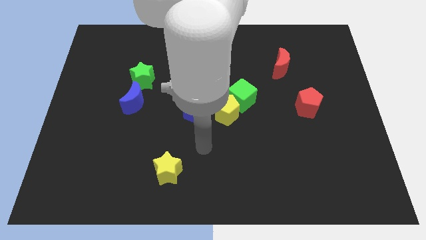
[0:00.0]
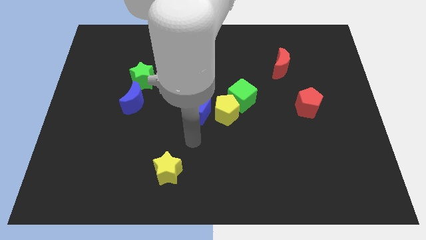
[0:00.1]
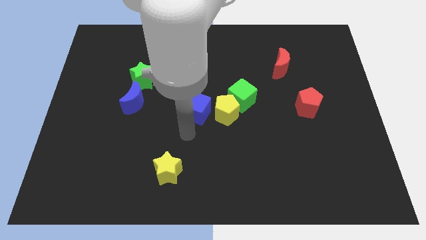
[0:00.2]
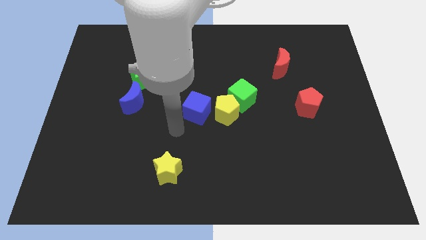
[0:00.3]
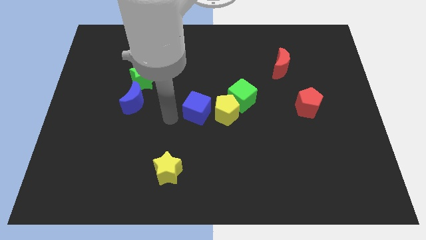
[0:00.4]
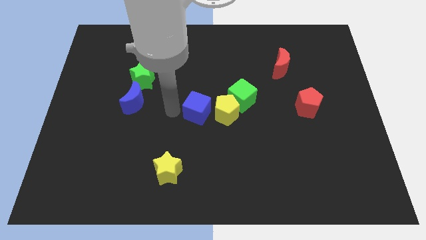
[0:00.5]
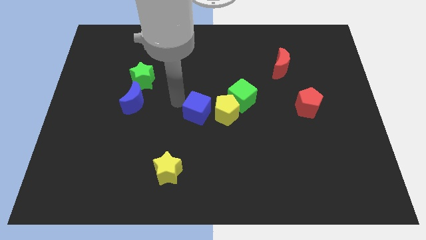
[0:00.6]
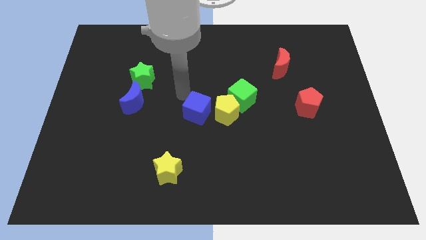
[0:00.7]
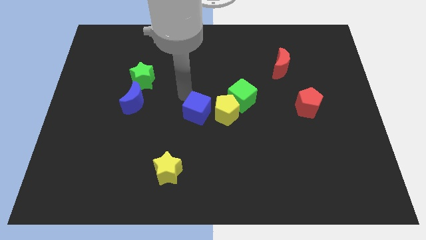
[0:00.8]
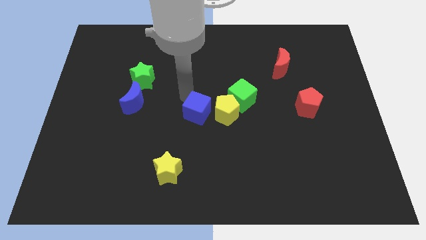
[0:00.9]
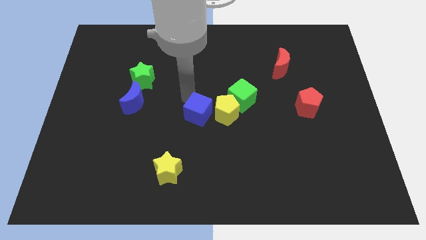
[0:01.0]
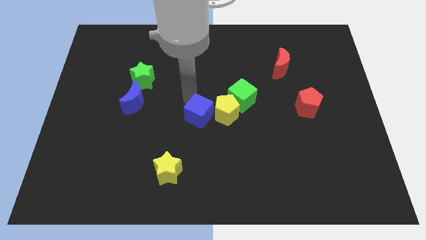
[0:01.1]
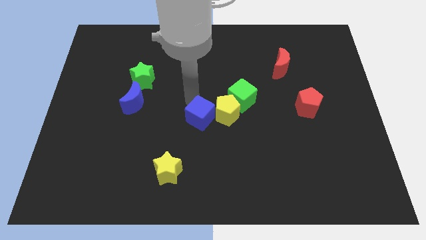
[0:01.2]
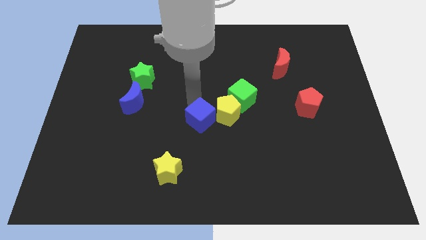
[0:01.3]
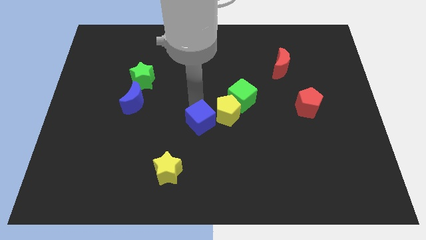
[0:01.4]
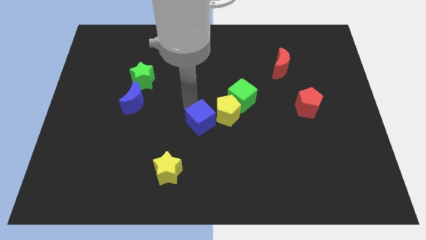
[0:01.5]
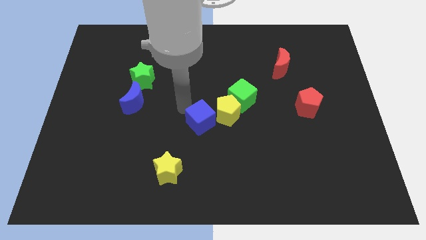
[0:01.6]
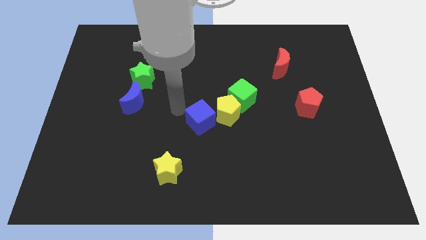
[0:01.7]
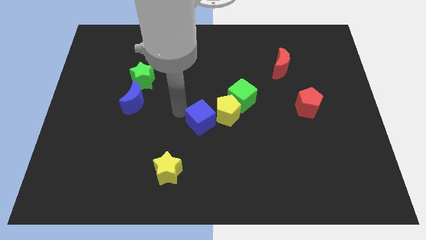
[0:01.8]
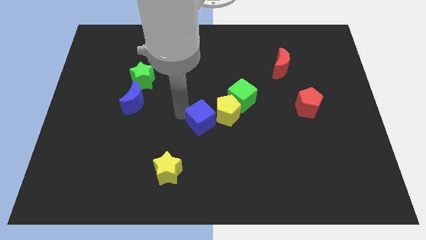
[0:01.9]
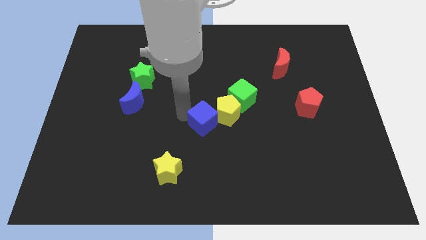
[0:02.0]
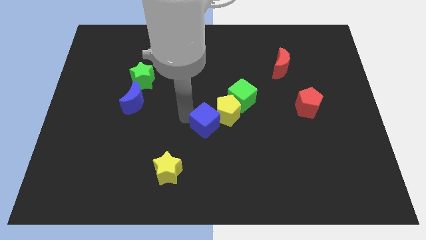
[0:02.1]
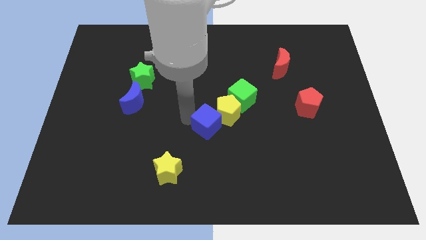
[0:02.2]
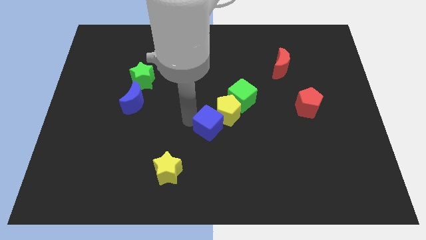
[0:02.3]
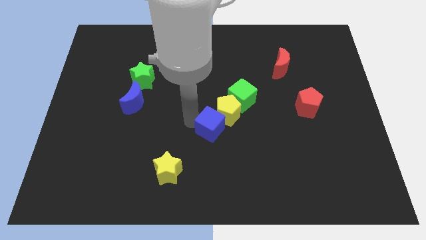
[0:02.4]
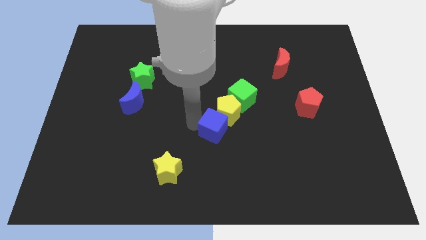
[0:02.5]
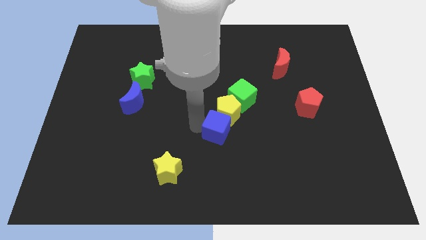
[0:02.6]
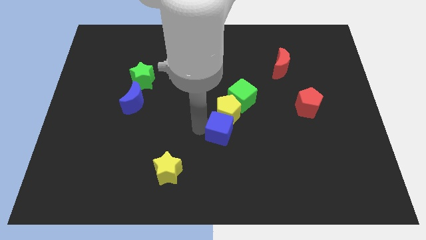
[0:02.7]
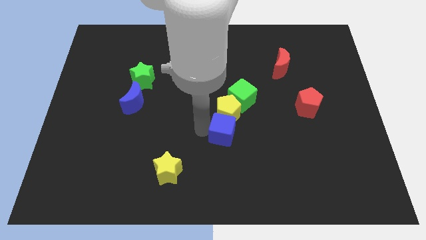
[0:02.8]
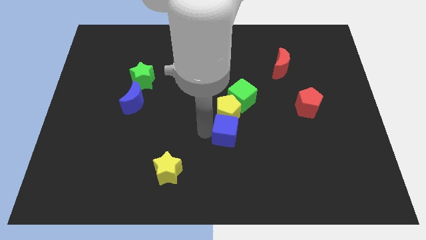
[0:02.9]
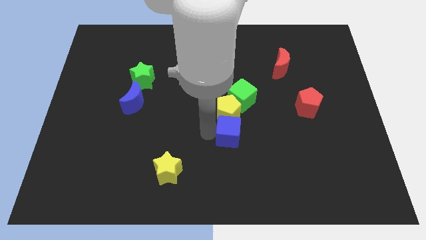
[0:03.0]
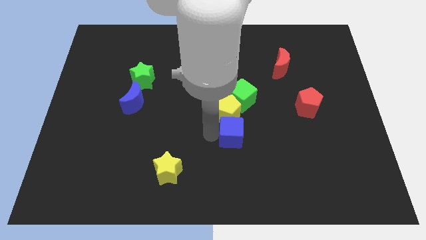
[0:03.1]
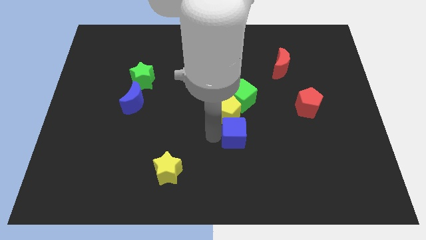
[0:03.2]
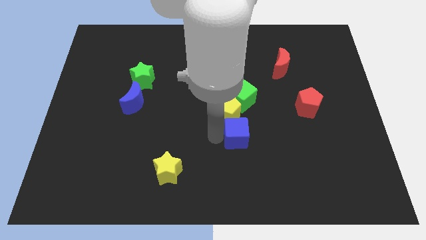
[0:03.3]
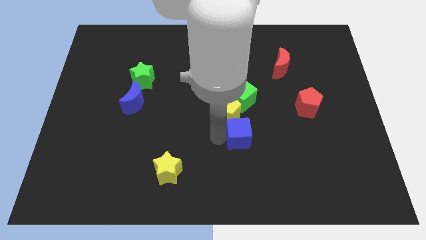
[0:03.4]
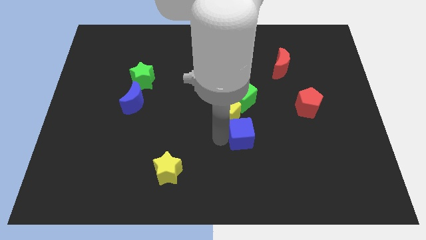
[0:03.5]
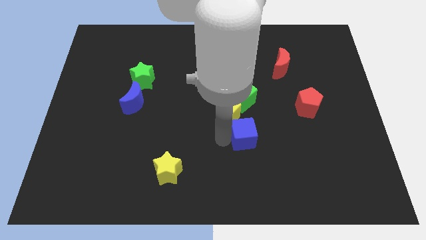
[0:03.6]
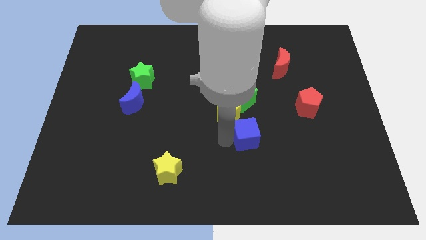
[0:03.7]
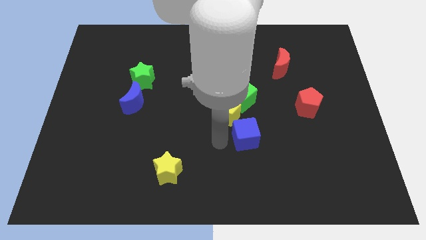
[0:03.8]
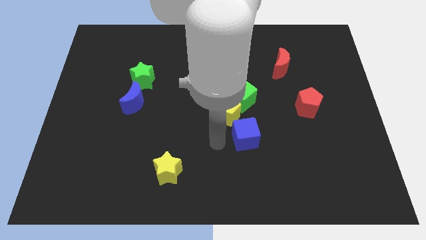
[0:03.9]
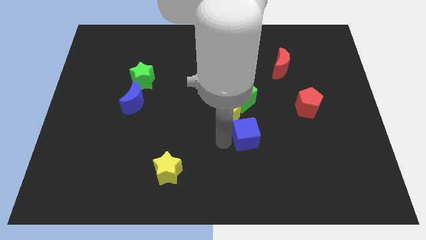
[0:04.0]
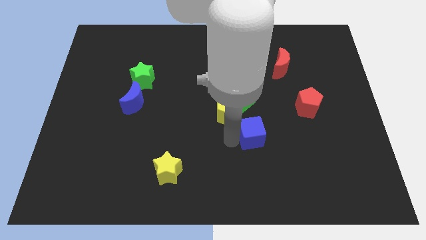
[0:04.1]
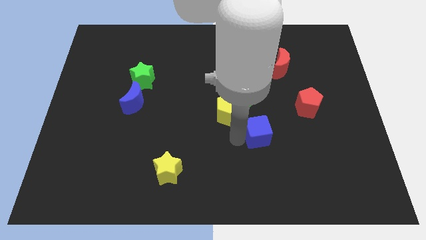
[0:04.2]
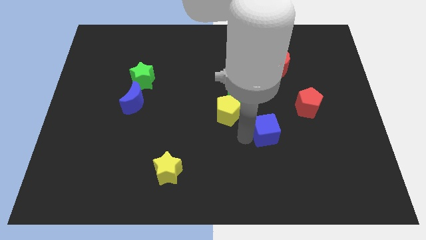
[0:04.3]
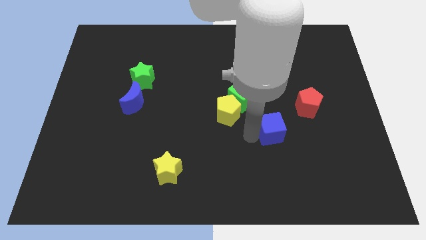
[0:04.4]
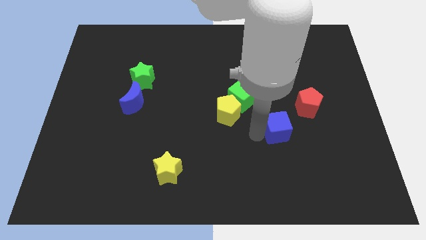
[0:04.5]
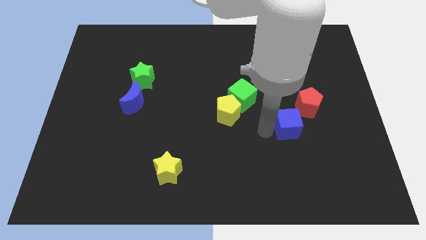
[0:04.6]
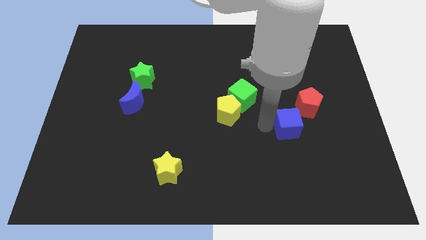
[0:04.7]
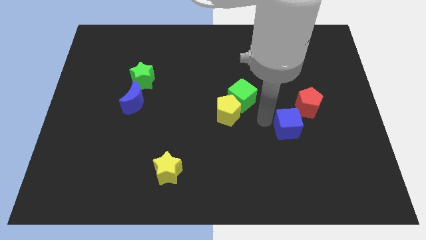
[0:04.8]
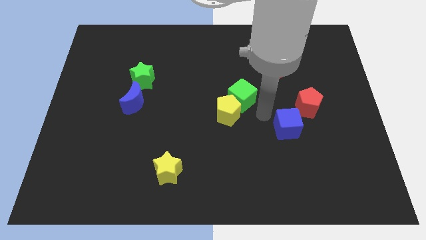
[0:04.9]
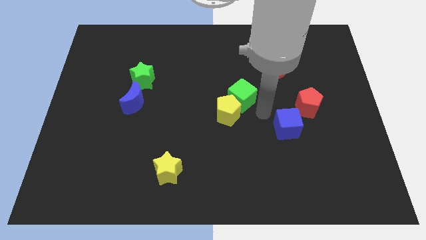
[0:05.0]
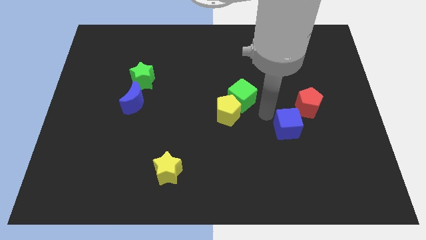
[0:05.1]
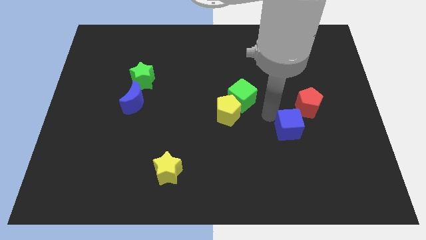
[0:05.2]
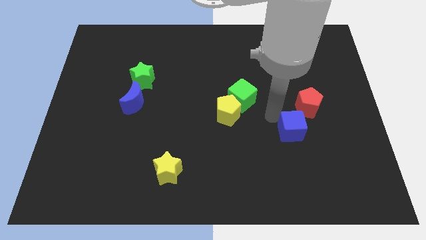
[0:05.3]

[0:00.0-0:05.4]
put the blue cube to the bottom side of the red pentagon

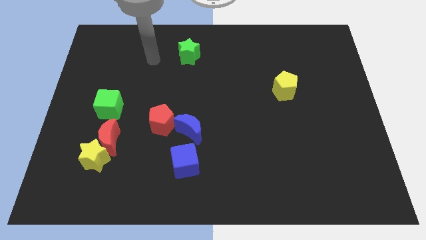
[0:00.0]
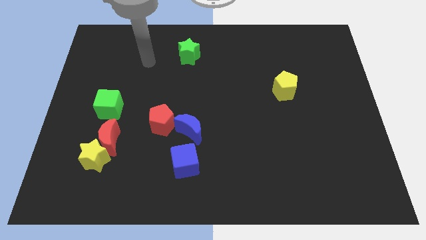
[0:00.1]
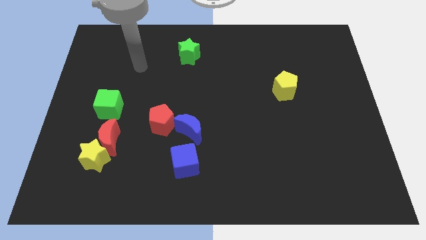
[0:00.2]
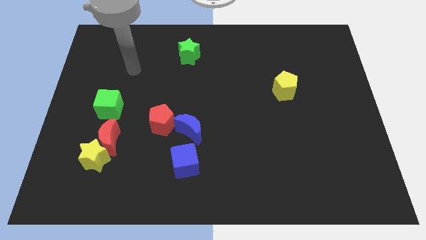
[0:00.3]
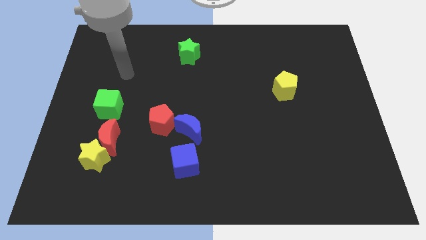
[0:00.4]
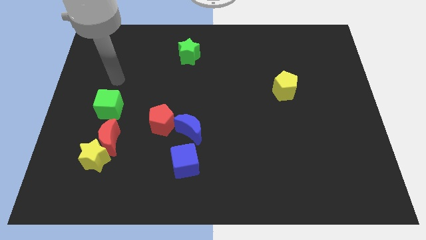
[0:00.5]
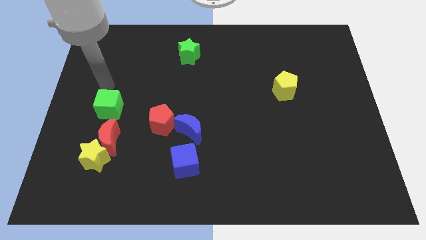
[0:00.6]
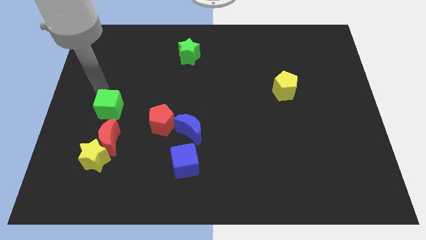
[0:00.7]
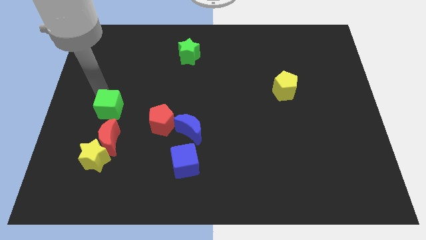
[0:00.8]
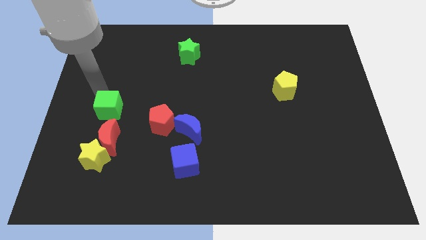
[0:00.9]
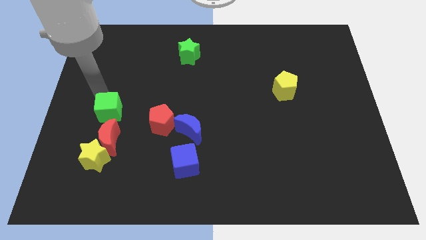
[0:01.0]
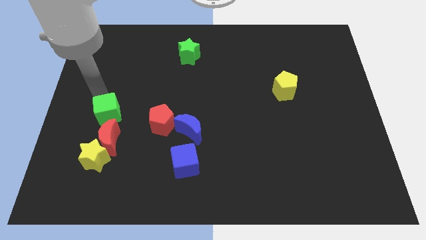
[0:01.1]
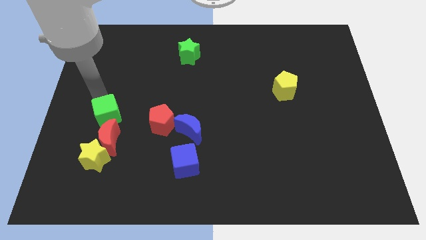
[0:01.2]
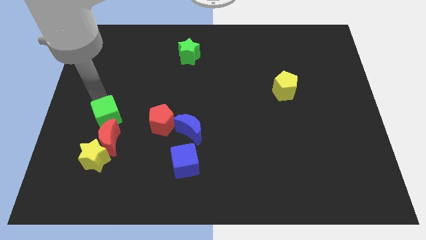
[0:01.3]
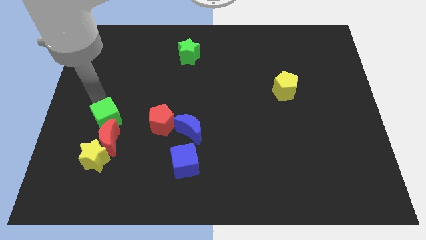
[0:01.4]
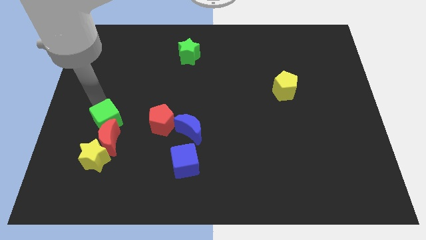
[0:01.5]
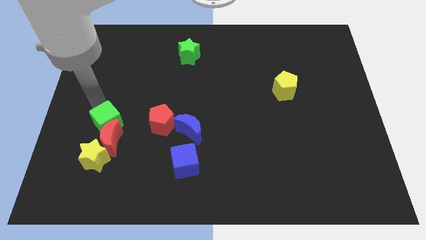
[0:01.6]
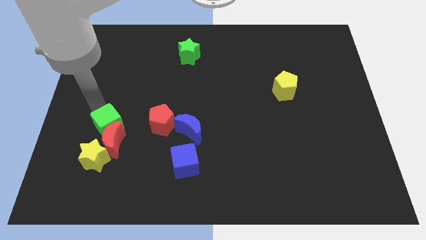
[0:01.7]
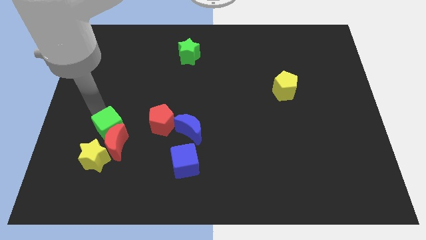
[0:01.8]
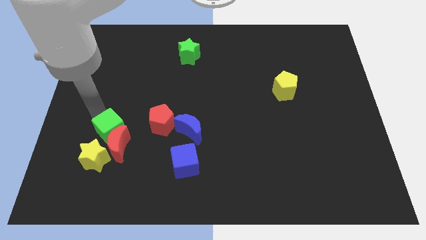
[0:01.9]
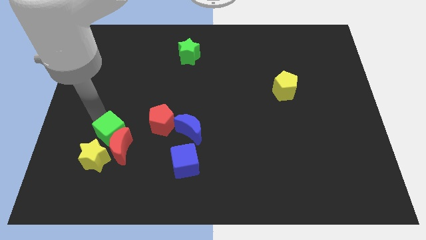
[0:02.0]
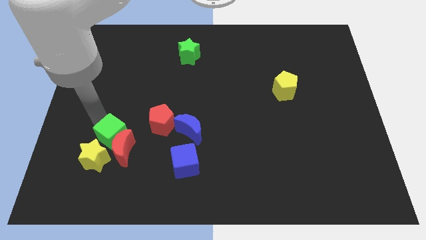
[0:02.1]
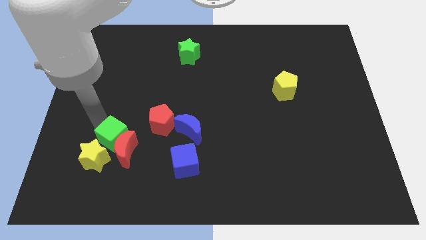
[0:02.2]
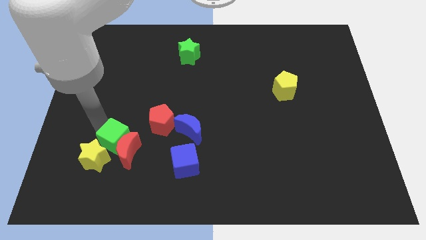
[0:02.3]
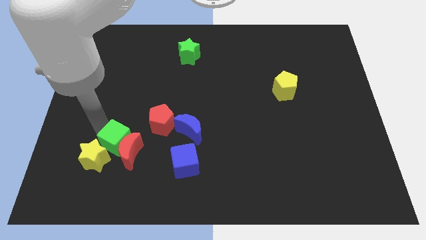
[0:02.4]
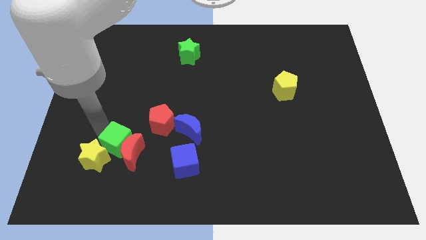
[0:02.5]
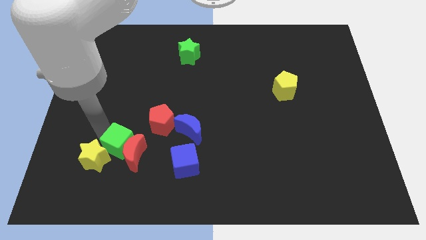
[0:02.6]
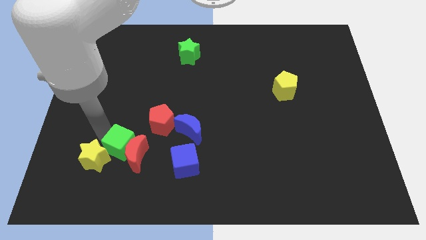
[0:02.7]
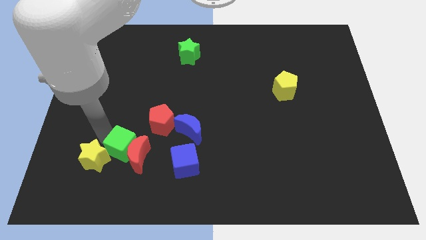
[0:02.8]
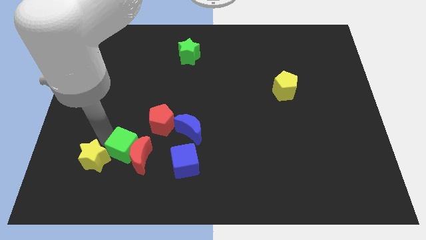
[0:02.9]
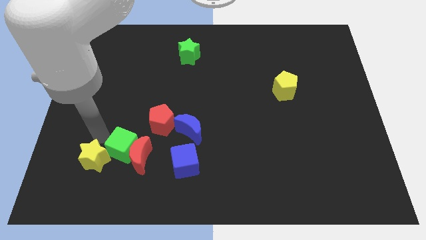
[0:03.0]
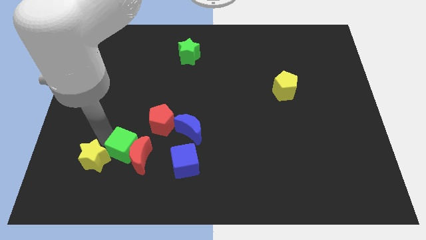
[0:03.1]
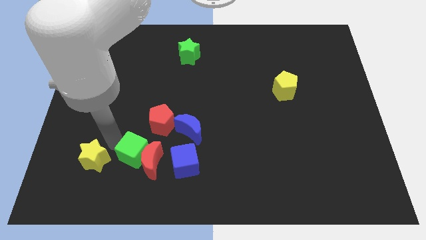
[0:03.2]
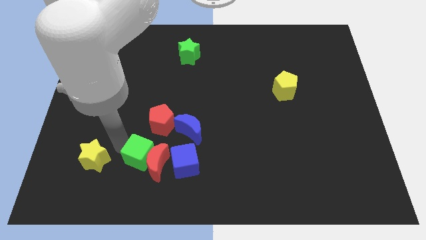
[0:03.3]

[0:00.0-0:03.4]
move the green cube to the bottom of the red pentagon
